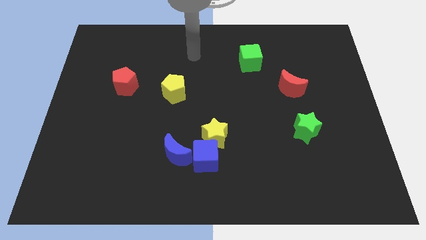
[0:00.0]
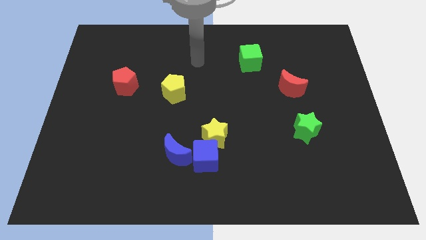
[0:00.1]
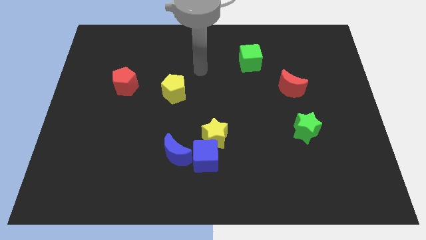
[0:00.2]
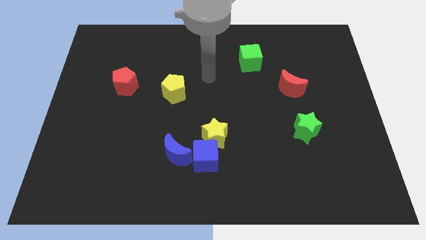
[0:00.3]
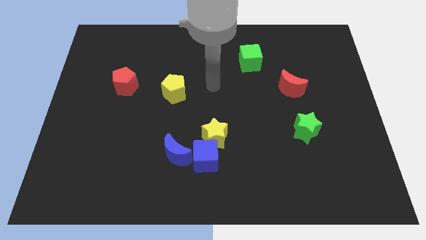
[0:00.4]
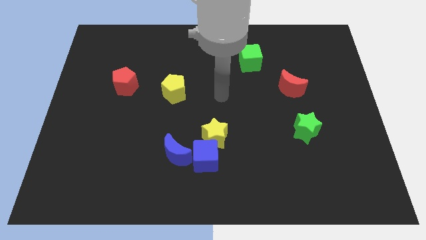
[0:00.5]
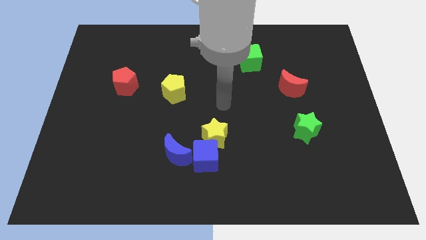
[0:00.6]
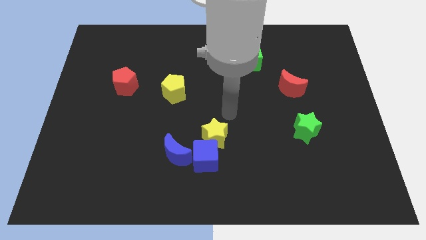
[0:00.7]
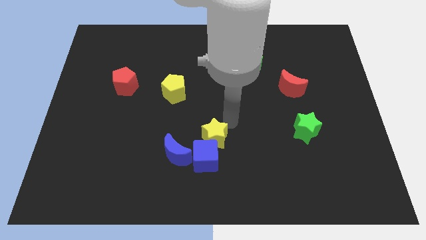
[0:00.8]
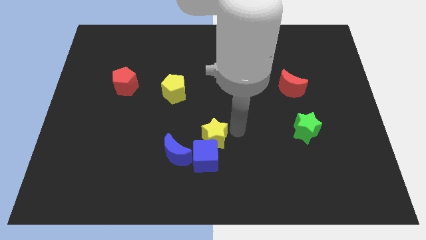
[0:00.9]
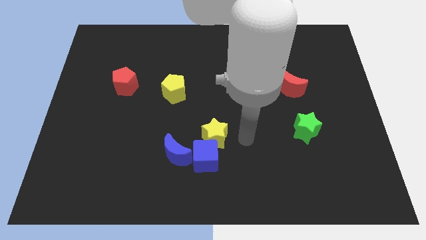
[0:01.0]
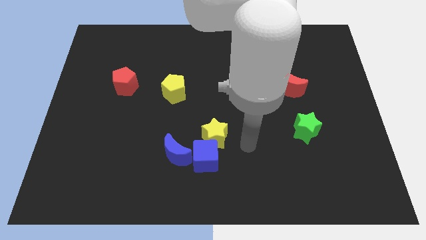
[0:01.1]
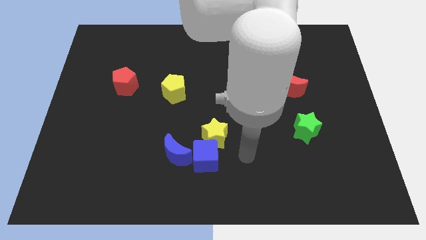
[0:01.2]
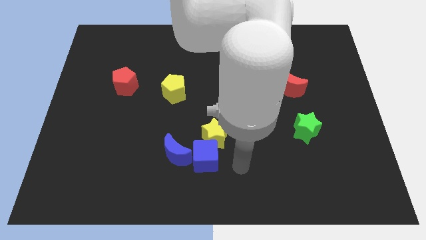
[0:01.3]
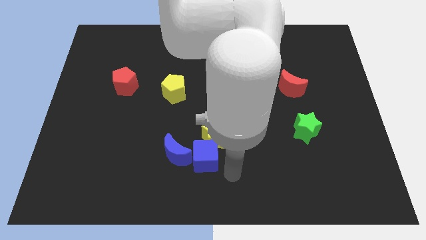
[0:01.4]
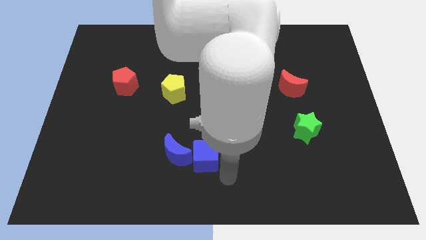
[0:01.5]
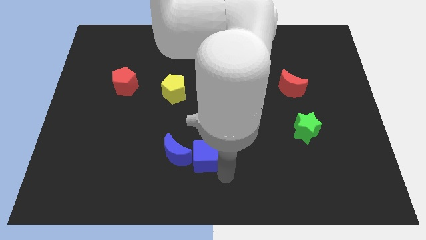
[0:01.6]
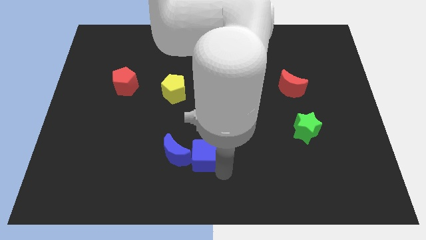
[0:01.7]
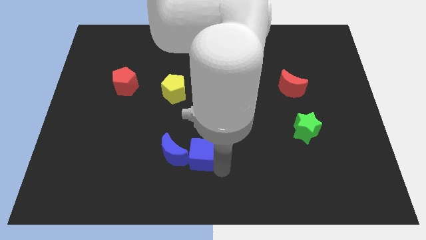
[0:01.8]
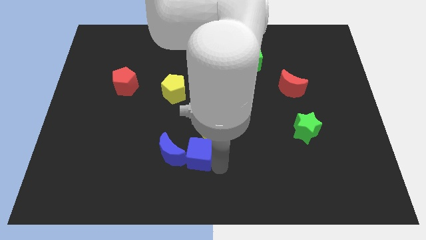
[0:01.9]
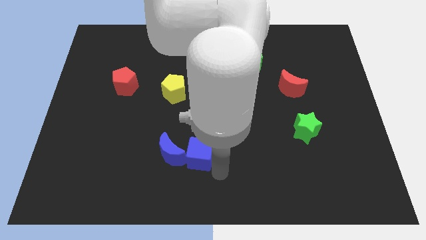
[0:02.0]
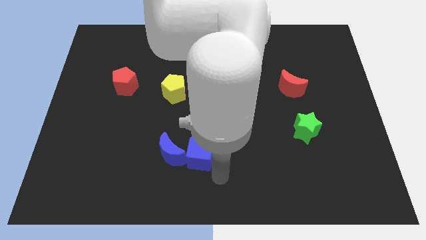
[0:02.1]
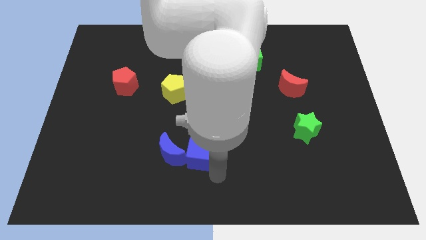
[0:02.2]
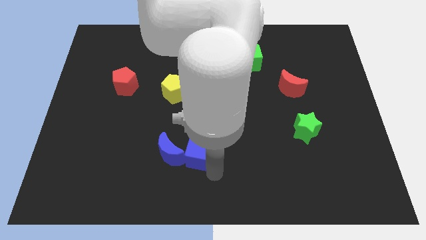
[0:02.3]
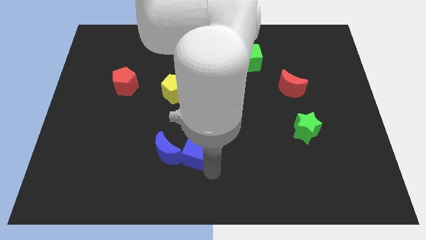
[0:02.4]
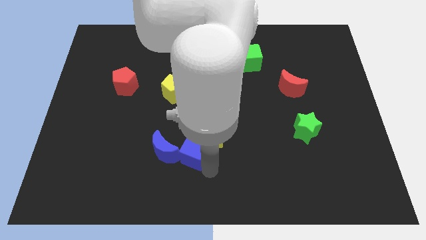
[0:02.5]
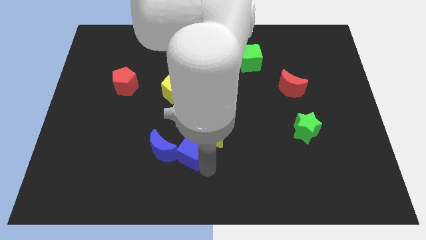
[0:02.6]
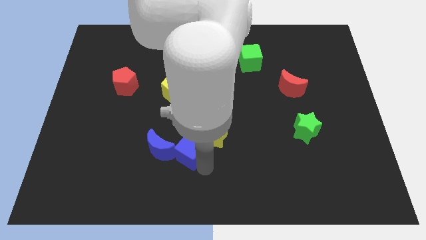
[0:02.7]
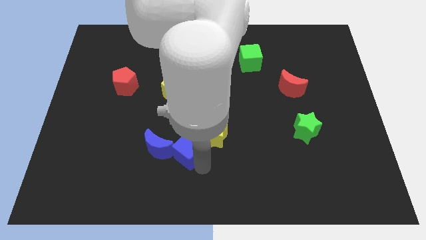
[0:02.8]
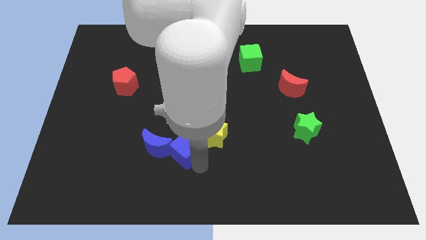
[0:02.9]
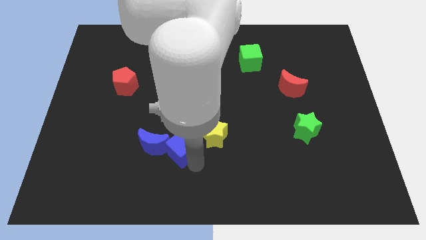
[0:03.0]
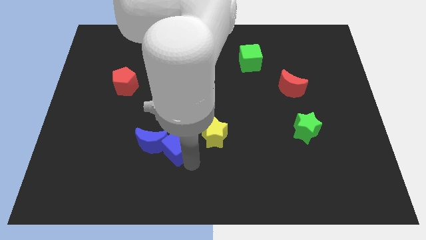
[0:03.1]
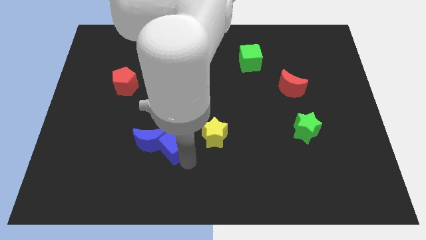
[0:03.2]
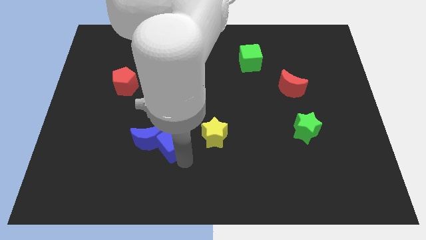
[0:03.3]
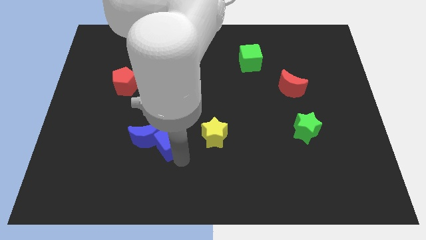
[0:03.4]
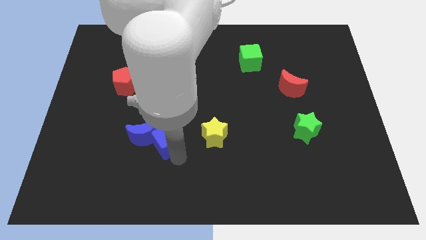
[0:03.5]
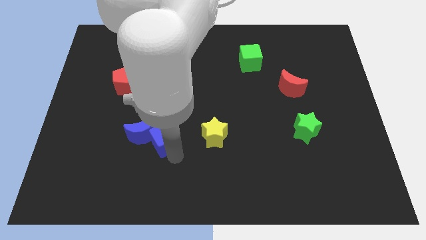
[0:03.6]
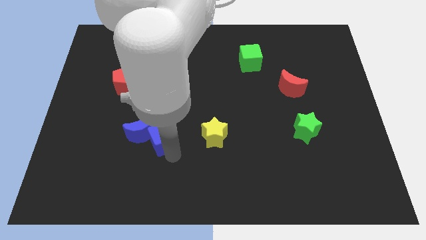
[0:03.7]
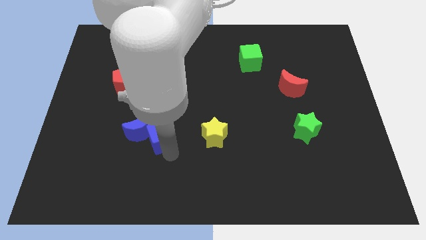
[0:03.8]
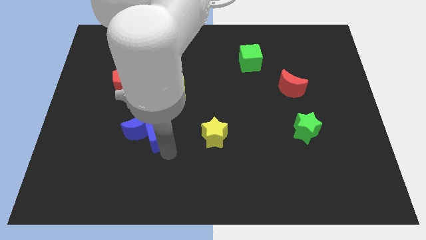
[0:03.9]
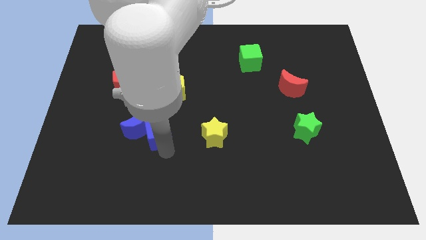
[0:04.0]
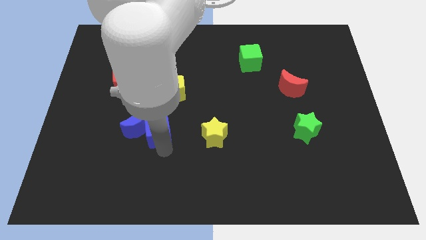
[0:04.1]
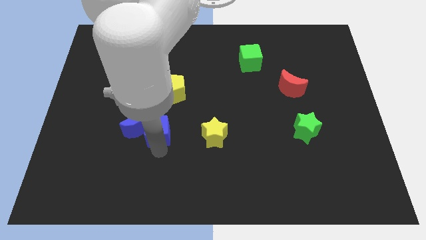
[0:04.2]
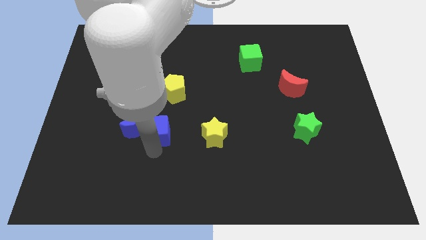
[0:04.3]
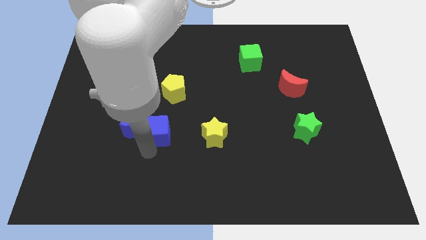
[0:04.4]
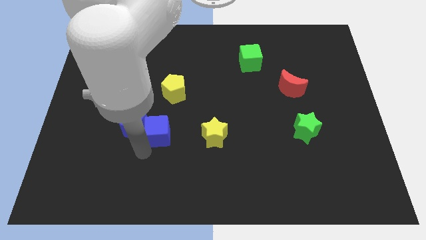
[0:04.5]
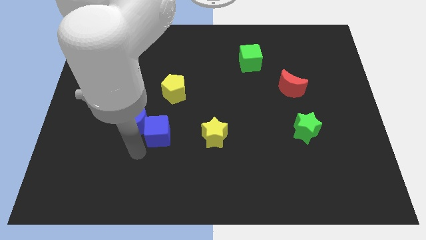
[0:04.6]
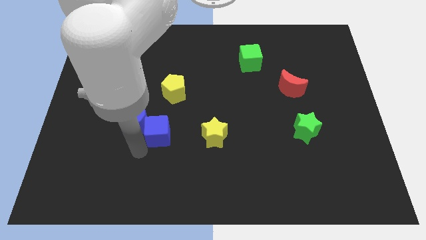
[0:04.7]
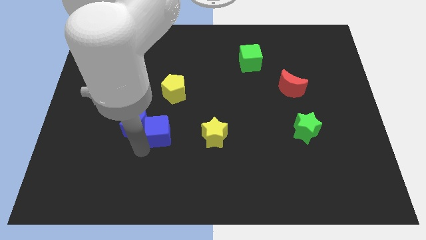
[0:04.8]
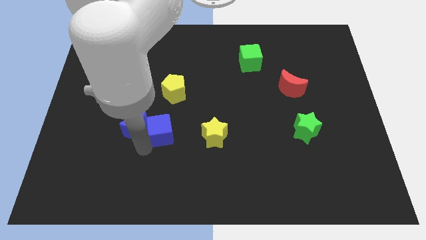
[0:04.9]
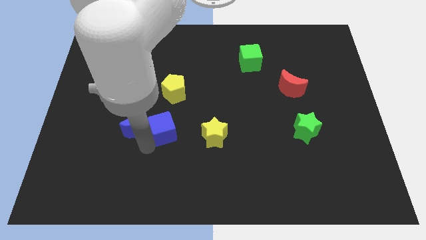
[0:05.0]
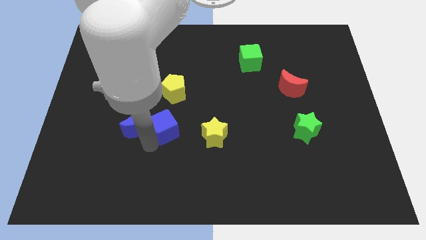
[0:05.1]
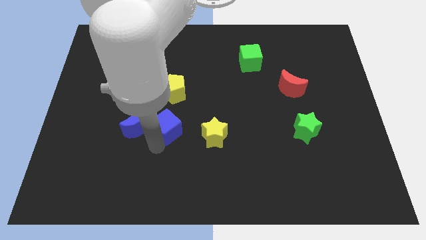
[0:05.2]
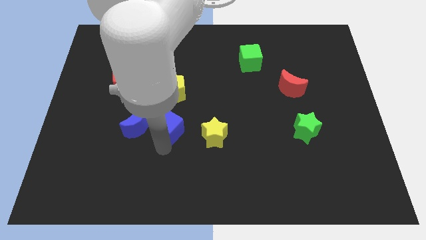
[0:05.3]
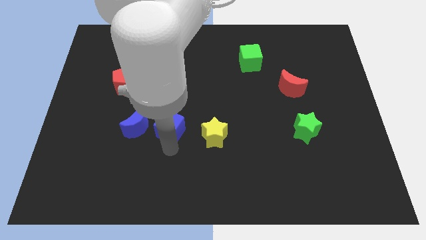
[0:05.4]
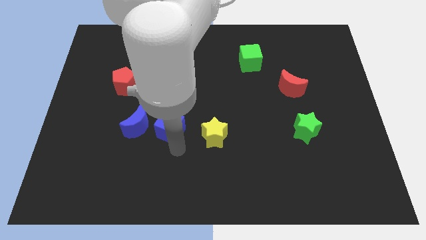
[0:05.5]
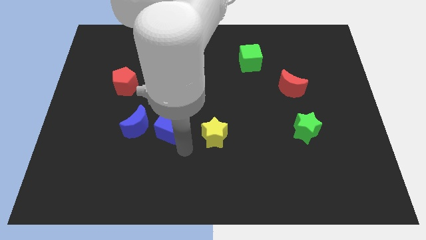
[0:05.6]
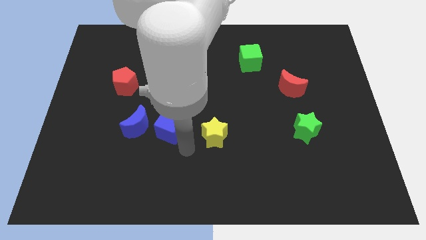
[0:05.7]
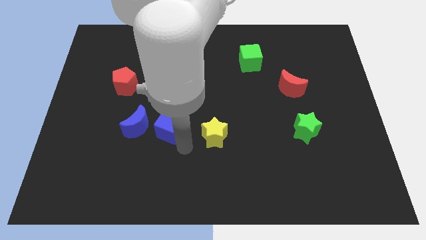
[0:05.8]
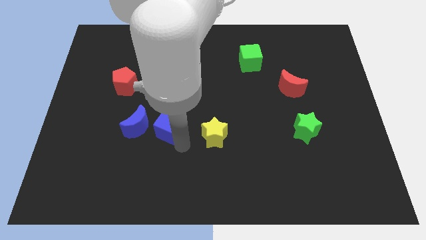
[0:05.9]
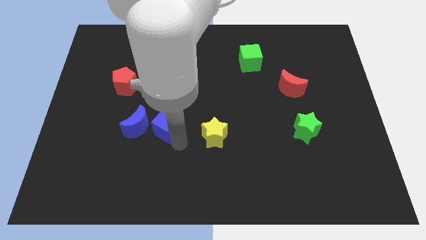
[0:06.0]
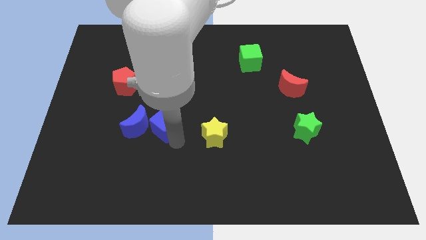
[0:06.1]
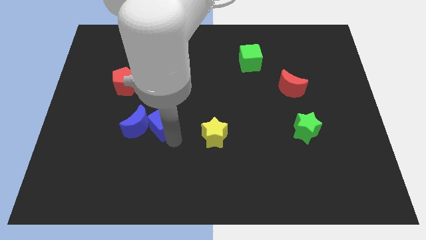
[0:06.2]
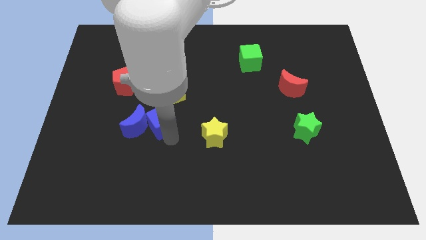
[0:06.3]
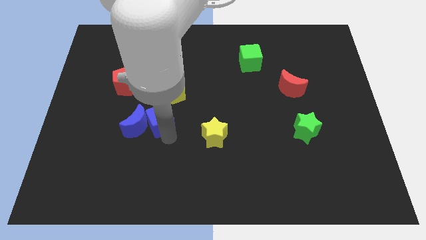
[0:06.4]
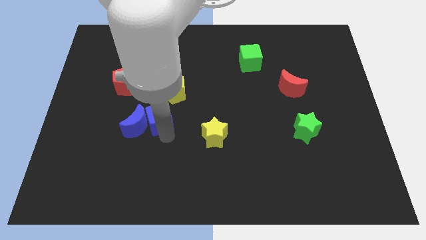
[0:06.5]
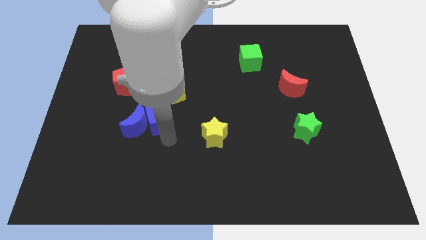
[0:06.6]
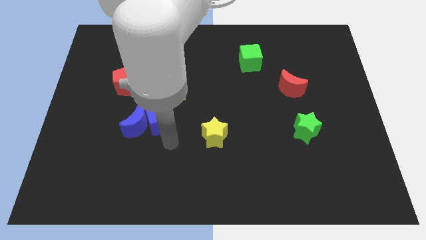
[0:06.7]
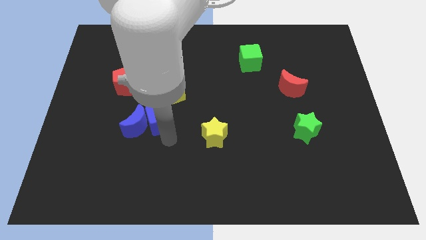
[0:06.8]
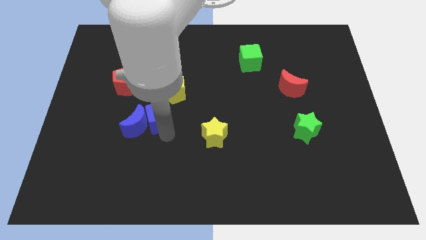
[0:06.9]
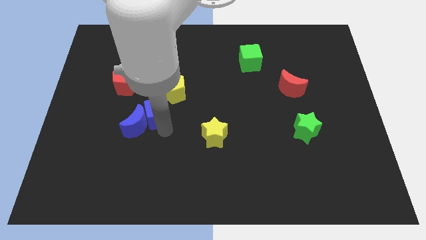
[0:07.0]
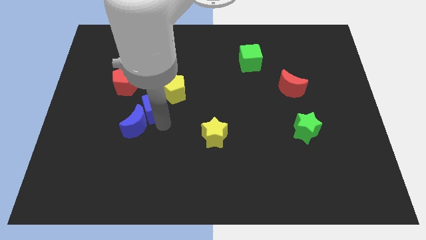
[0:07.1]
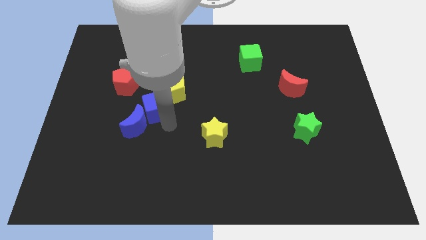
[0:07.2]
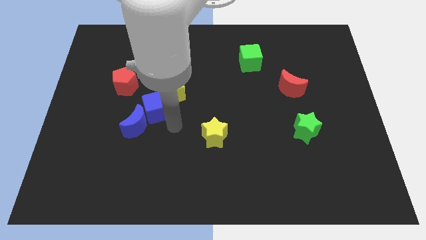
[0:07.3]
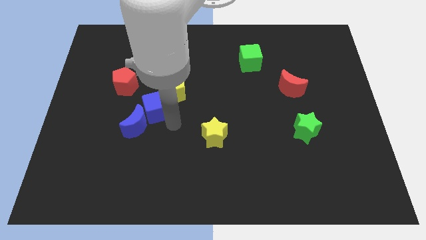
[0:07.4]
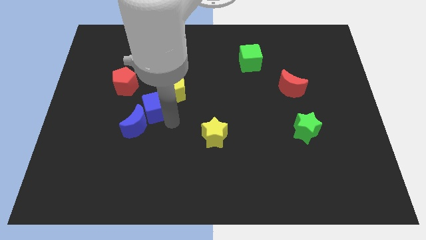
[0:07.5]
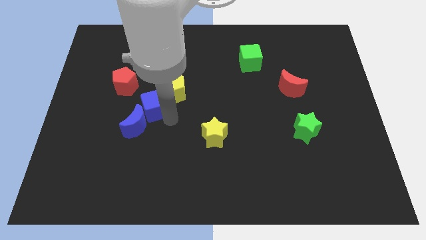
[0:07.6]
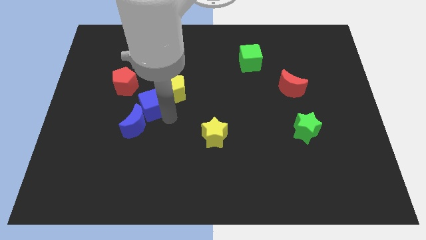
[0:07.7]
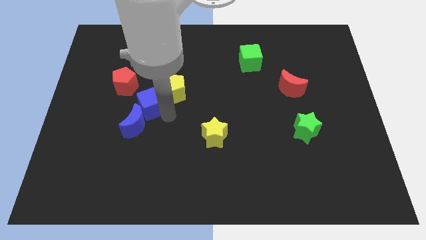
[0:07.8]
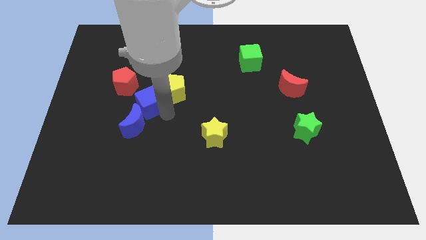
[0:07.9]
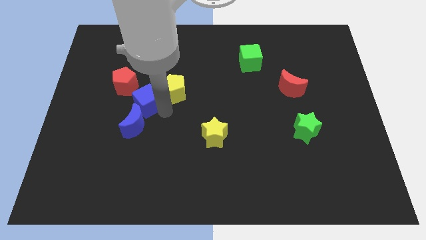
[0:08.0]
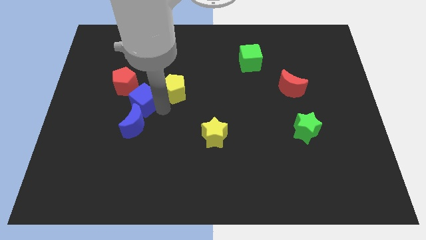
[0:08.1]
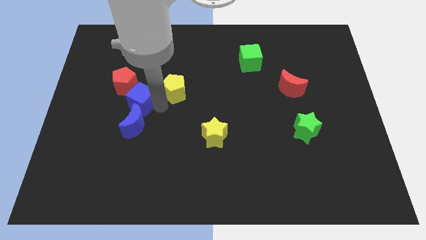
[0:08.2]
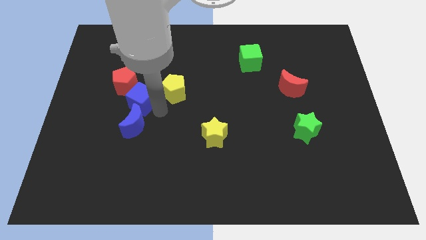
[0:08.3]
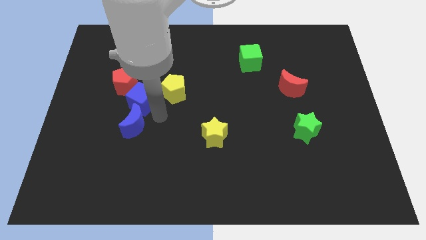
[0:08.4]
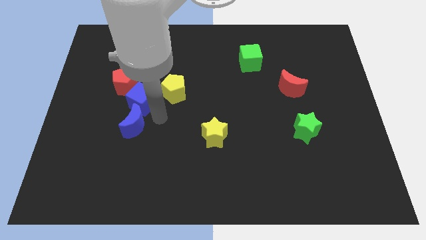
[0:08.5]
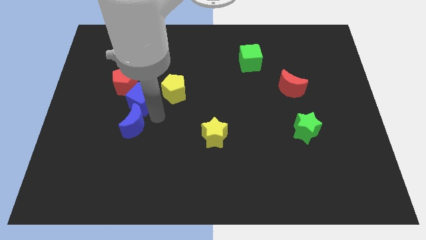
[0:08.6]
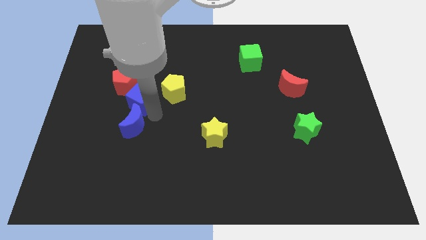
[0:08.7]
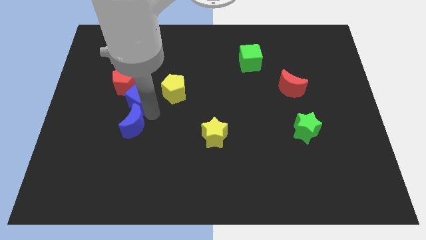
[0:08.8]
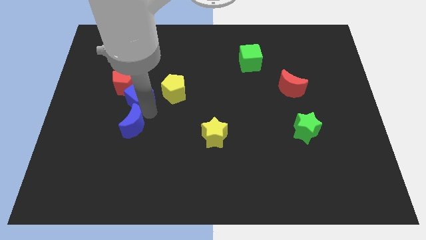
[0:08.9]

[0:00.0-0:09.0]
slide the blue cube close to the red pentagon
